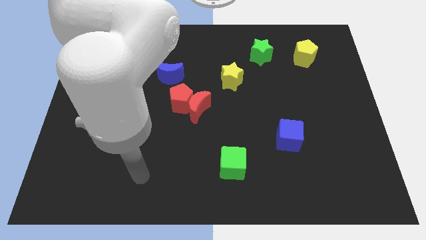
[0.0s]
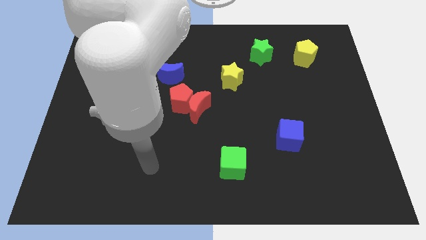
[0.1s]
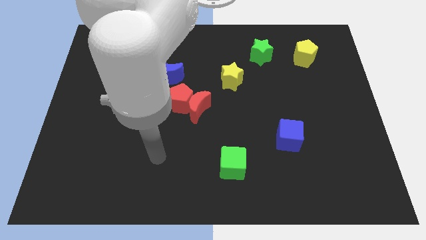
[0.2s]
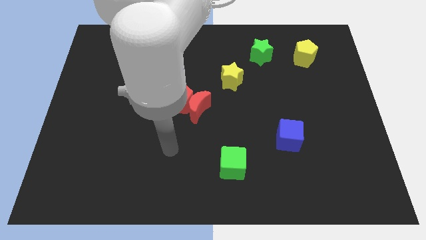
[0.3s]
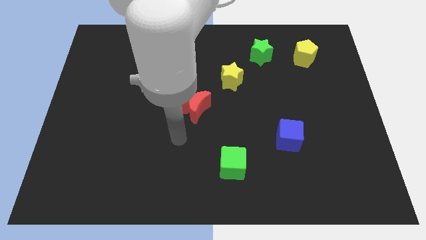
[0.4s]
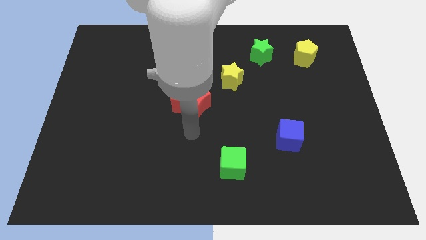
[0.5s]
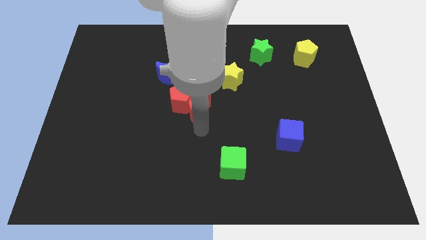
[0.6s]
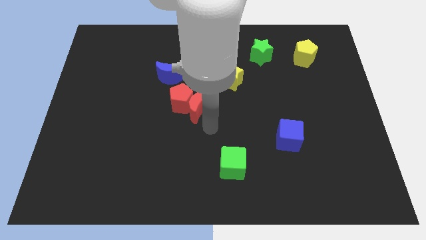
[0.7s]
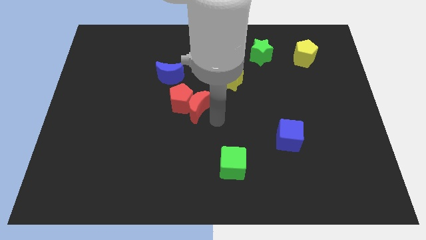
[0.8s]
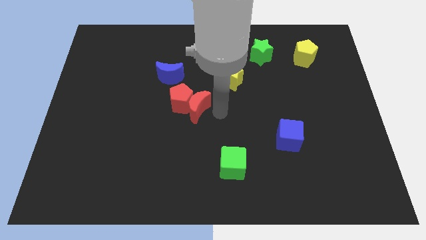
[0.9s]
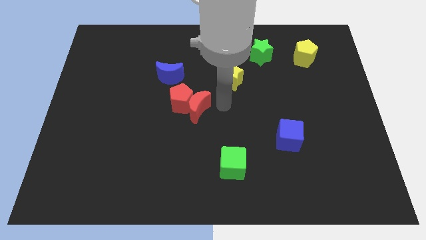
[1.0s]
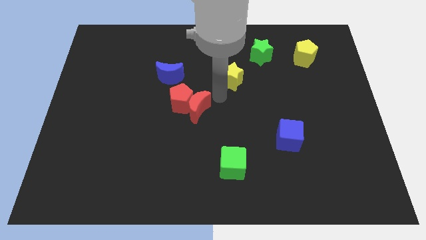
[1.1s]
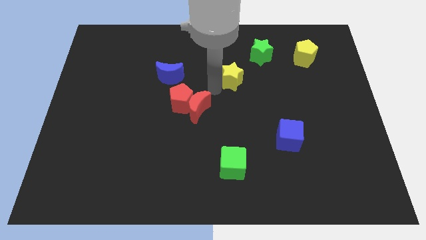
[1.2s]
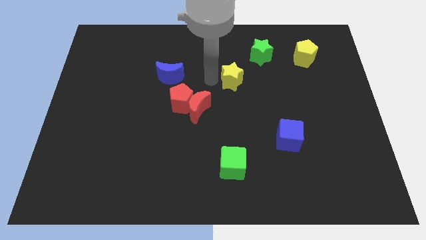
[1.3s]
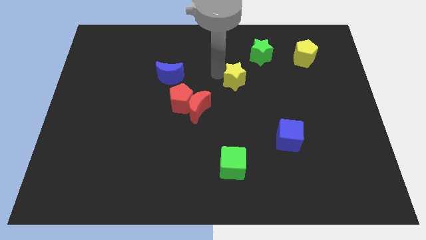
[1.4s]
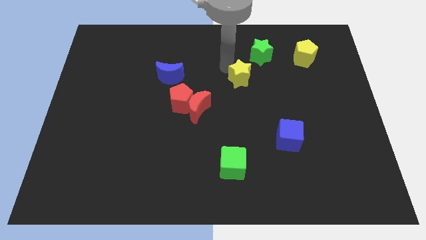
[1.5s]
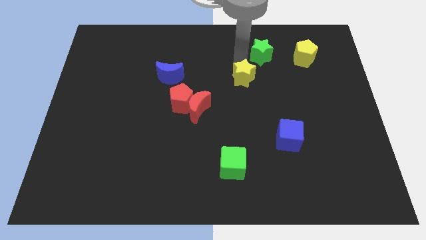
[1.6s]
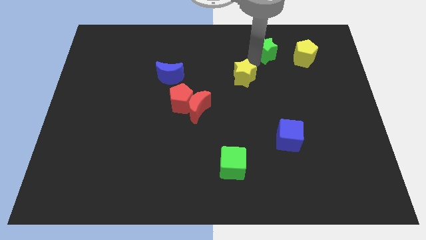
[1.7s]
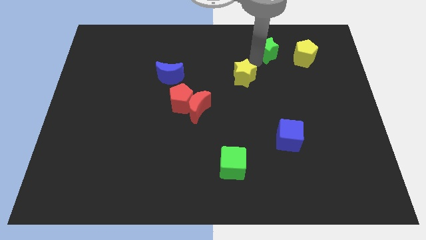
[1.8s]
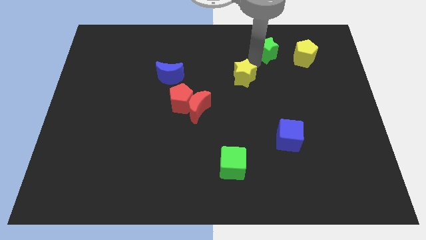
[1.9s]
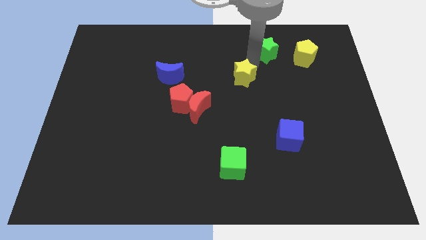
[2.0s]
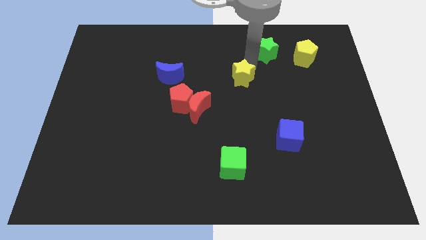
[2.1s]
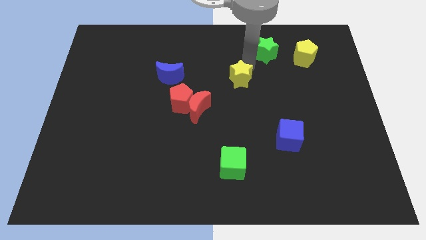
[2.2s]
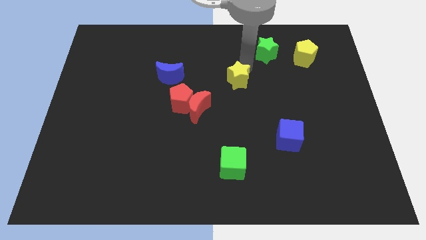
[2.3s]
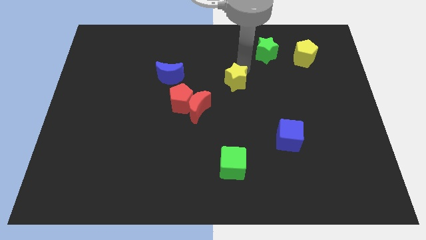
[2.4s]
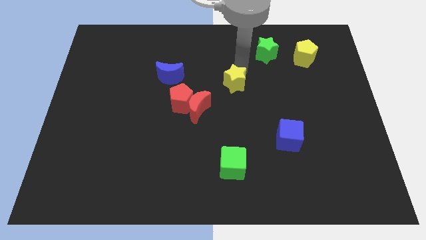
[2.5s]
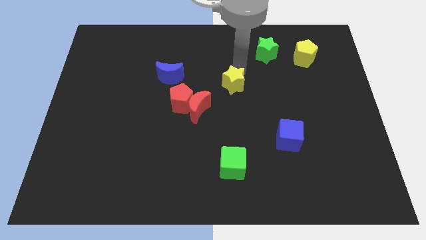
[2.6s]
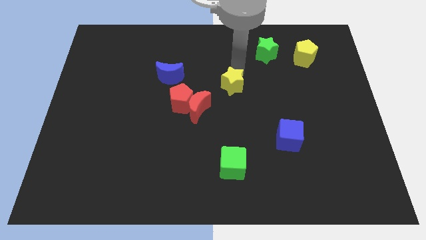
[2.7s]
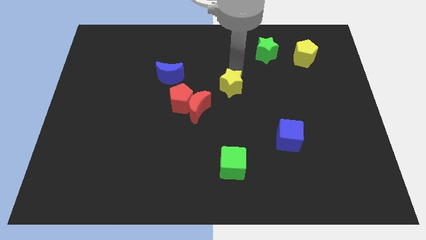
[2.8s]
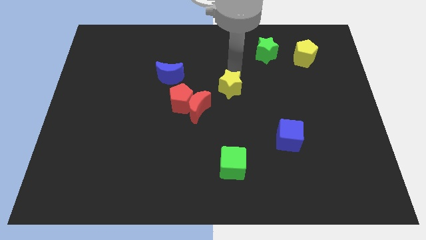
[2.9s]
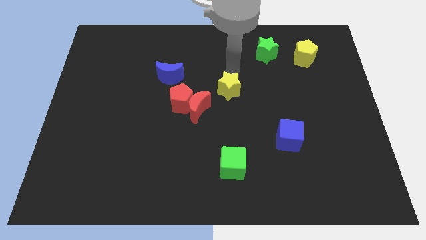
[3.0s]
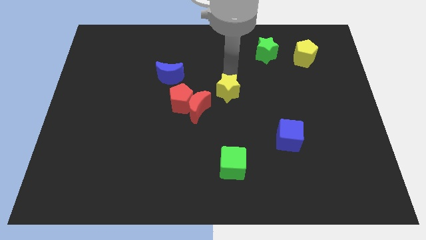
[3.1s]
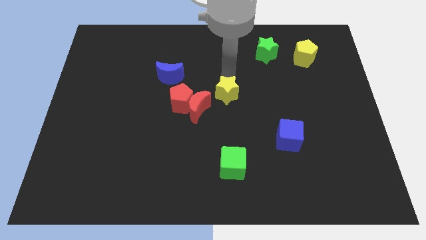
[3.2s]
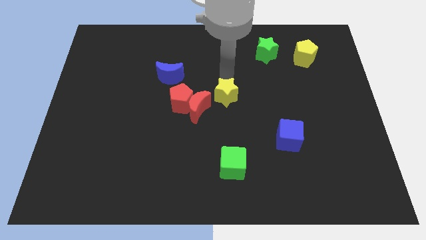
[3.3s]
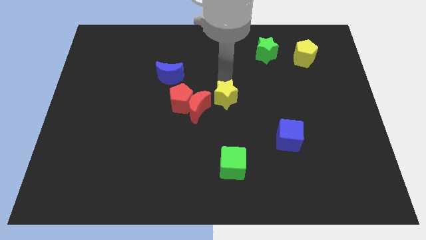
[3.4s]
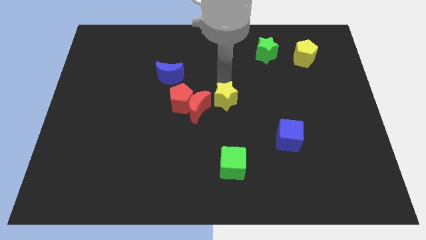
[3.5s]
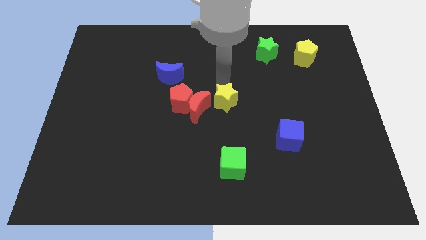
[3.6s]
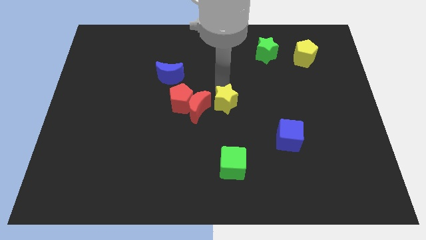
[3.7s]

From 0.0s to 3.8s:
push the yellow star somewhat downwards

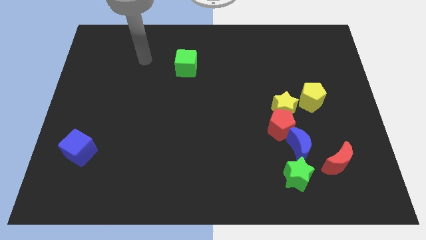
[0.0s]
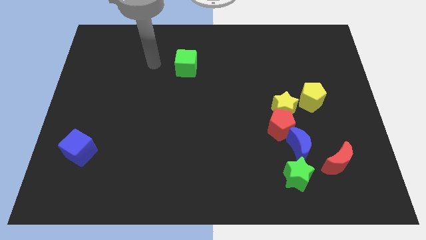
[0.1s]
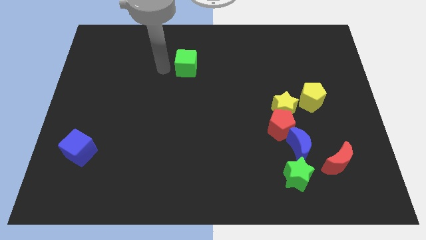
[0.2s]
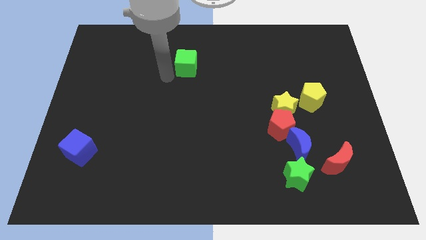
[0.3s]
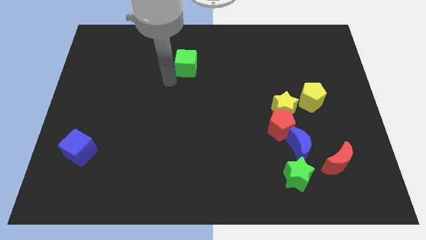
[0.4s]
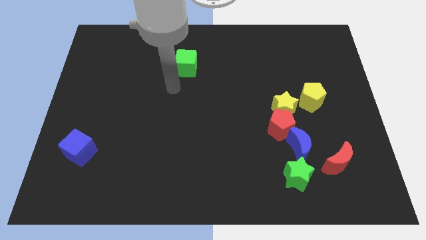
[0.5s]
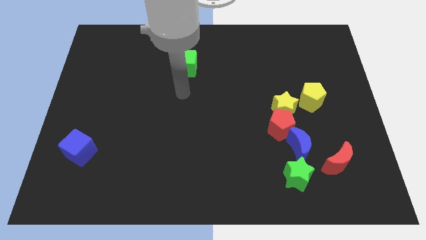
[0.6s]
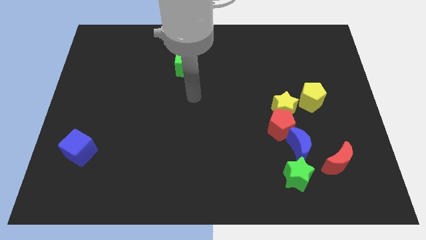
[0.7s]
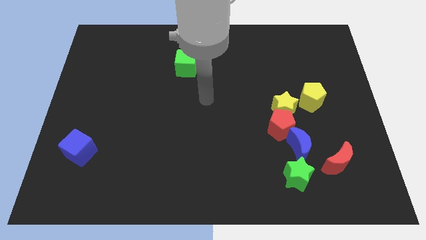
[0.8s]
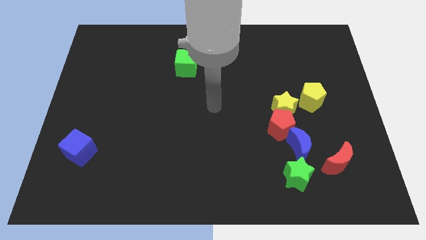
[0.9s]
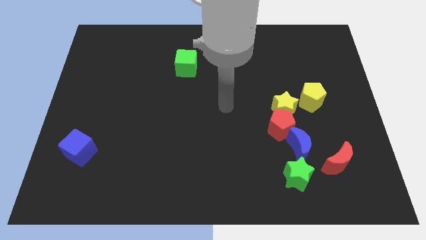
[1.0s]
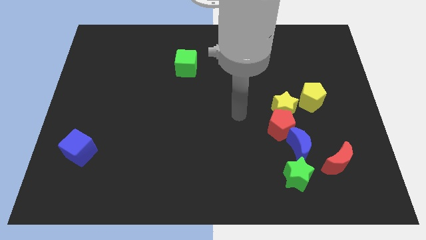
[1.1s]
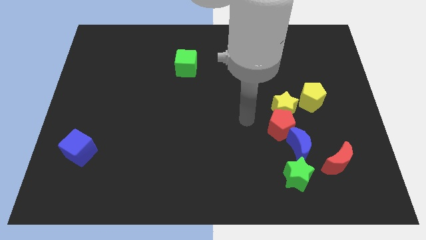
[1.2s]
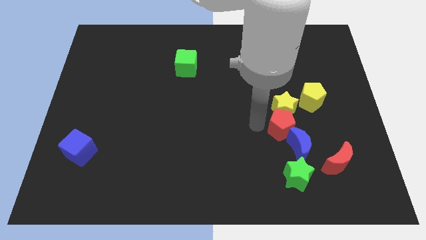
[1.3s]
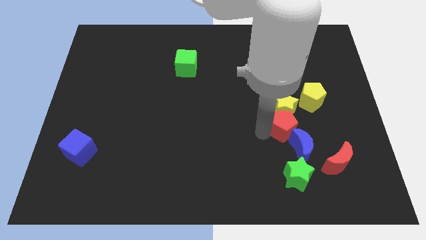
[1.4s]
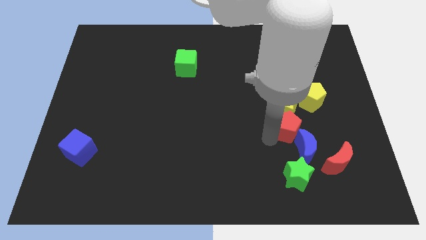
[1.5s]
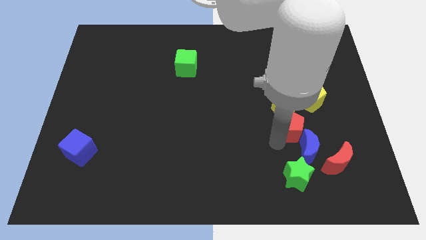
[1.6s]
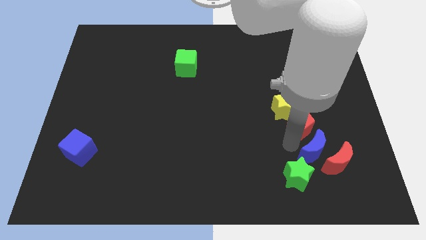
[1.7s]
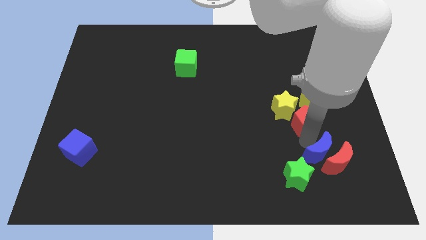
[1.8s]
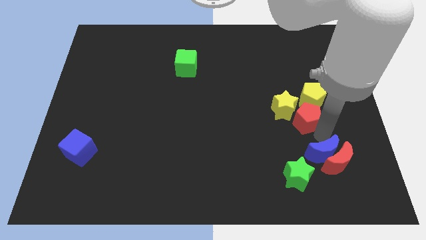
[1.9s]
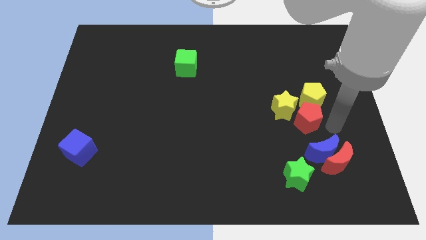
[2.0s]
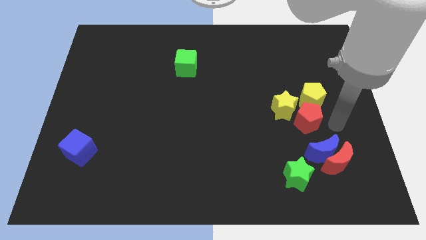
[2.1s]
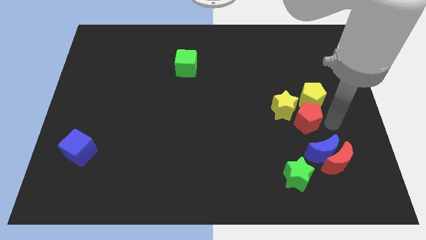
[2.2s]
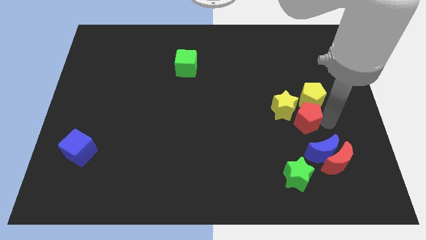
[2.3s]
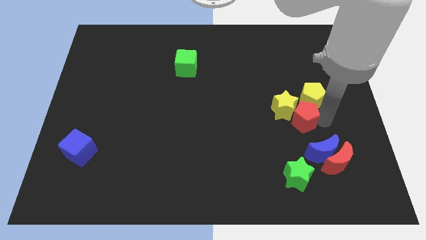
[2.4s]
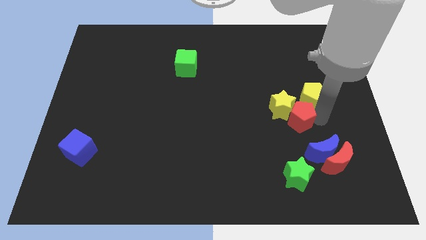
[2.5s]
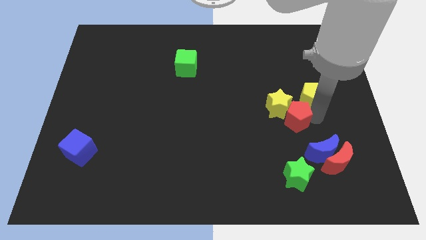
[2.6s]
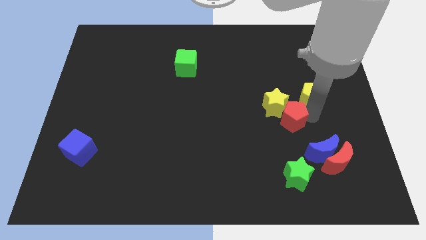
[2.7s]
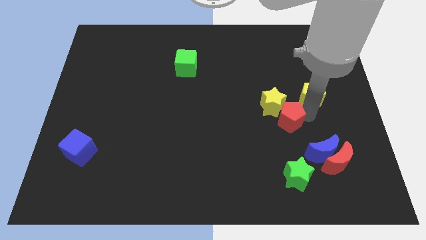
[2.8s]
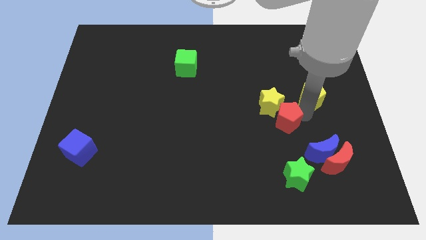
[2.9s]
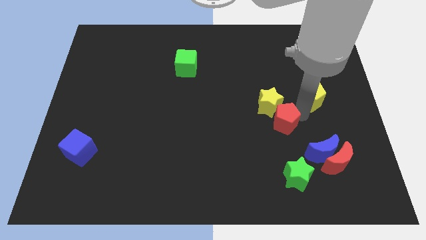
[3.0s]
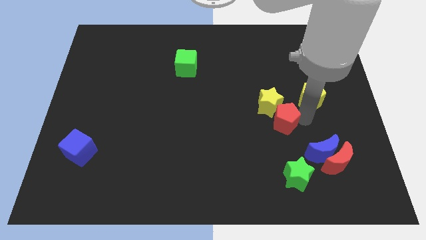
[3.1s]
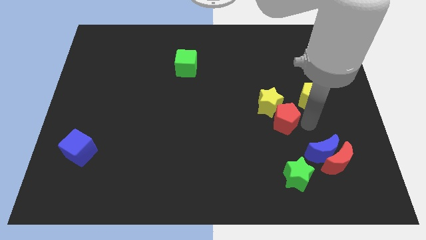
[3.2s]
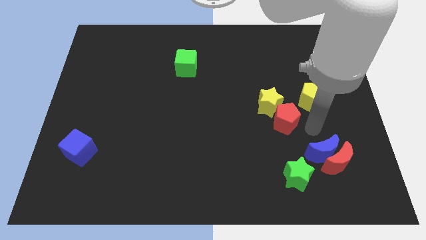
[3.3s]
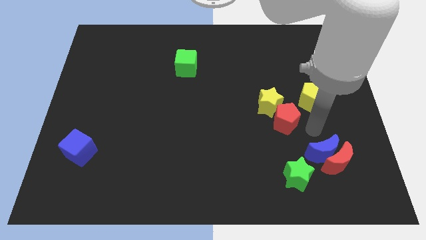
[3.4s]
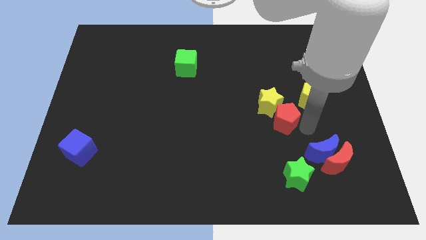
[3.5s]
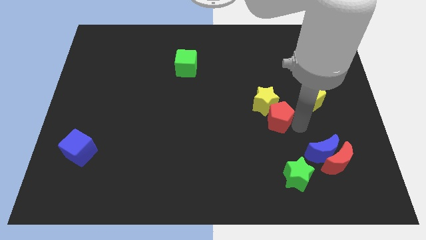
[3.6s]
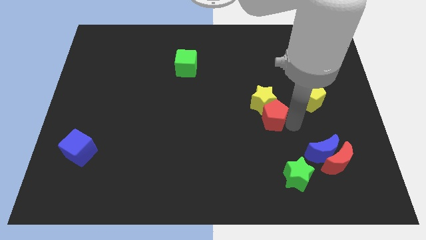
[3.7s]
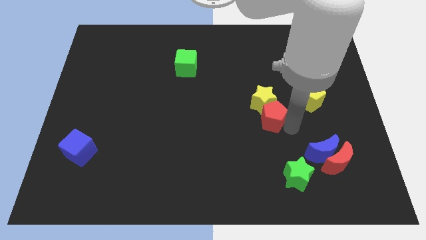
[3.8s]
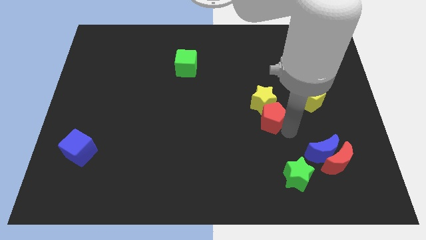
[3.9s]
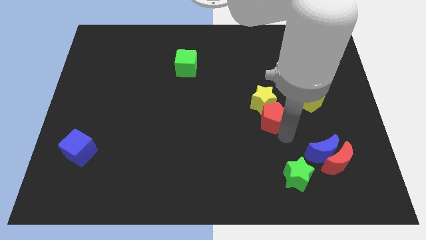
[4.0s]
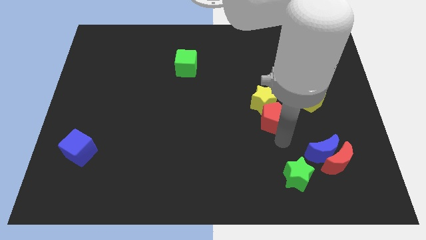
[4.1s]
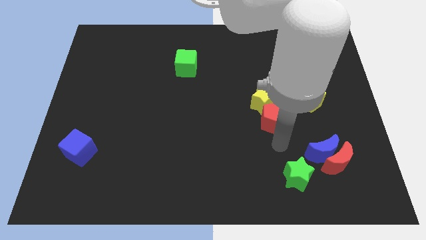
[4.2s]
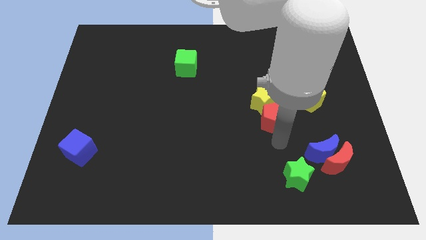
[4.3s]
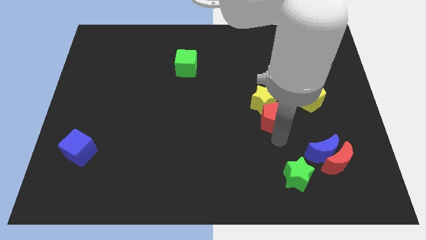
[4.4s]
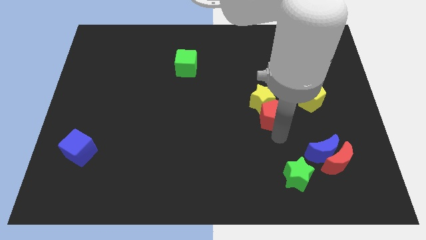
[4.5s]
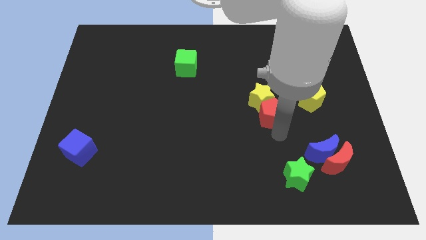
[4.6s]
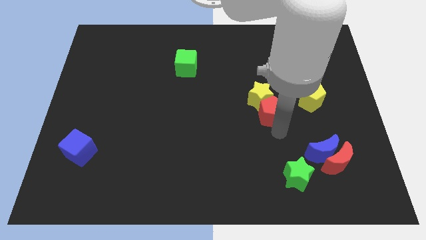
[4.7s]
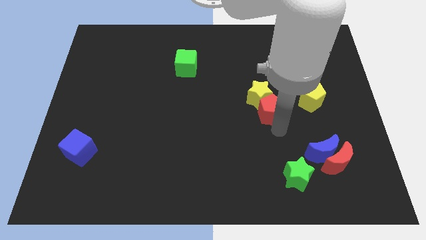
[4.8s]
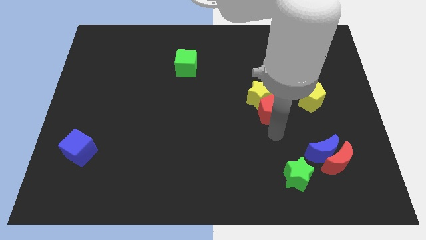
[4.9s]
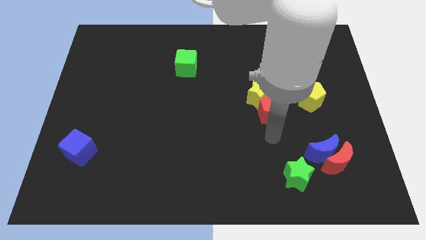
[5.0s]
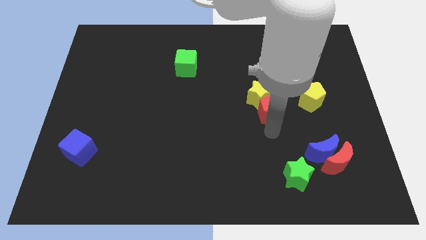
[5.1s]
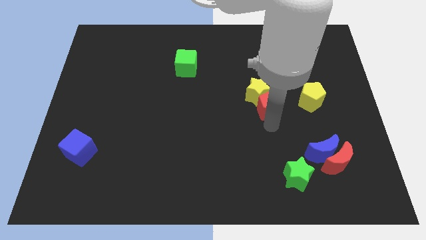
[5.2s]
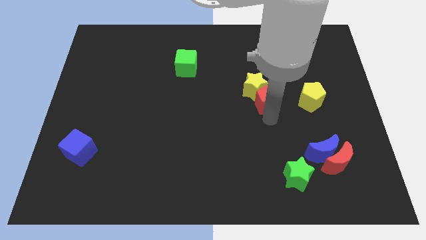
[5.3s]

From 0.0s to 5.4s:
slide the red pentagon a bit upwards
